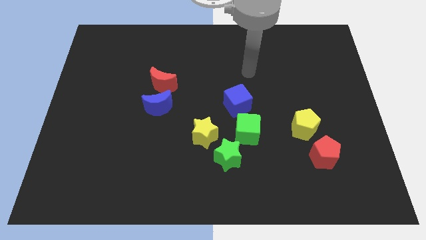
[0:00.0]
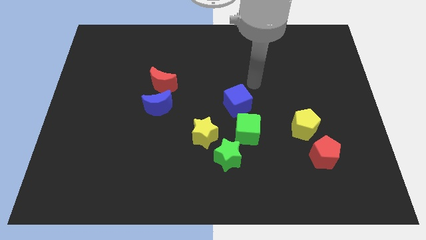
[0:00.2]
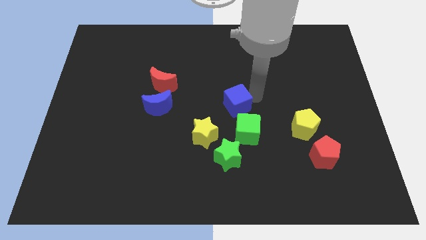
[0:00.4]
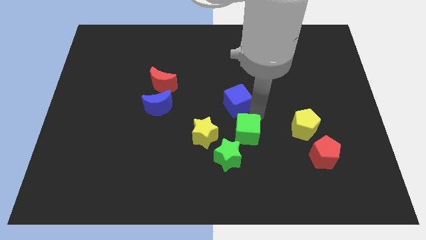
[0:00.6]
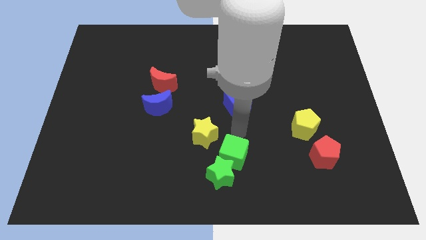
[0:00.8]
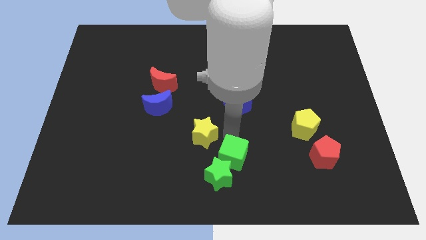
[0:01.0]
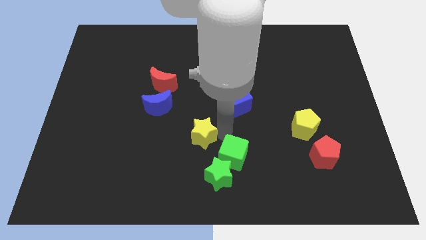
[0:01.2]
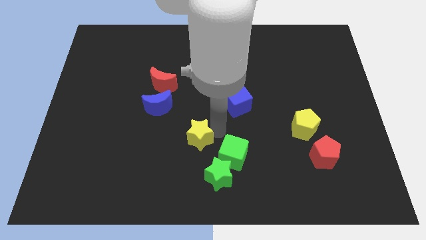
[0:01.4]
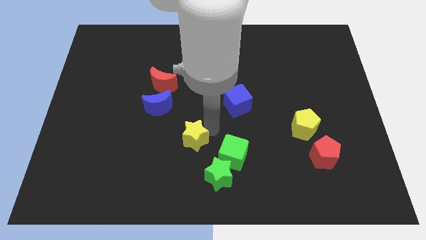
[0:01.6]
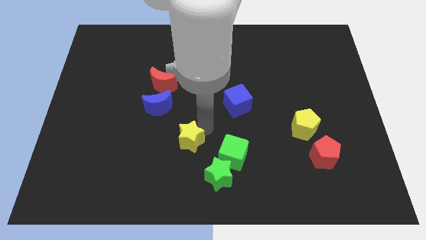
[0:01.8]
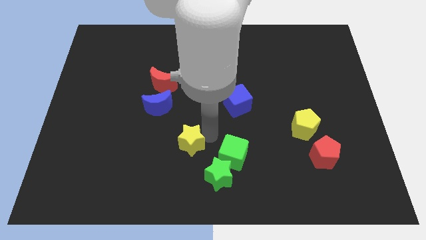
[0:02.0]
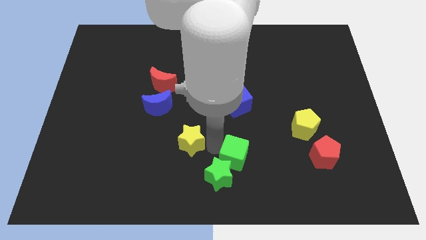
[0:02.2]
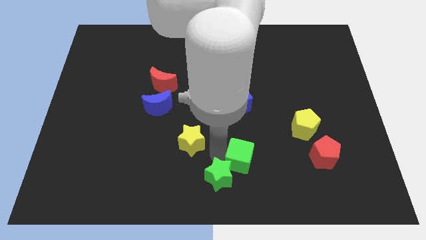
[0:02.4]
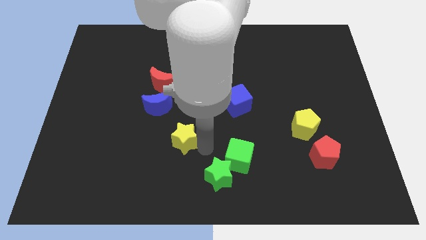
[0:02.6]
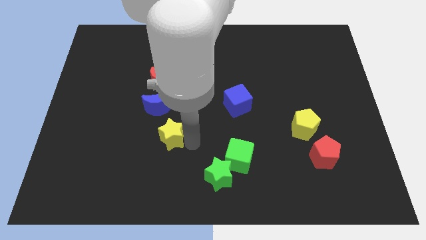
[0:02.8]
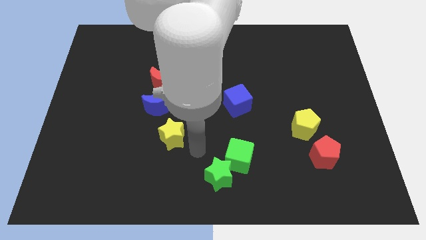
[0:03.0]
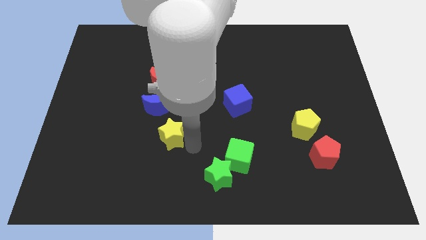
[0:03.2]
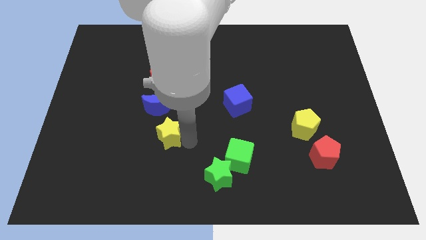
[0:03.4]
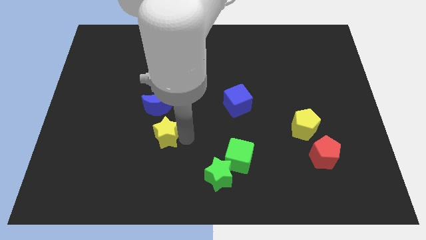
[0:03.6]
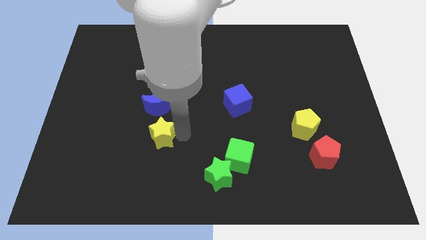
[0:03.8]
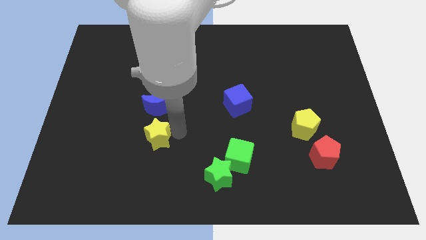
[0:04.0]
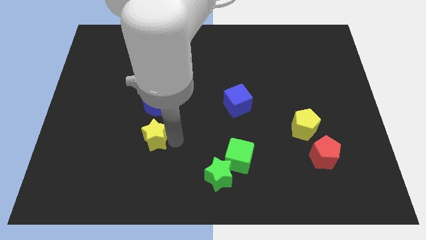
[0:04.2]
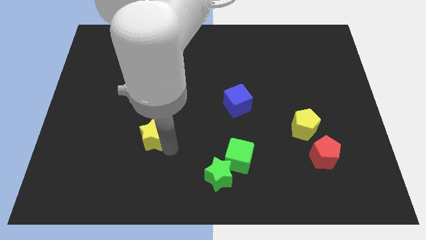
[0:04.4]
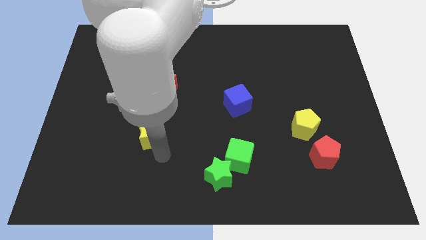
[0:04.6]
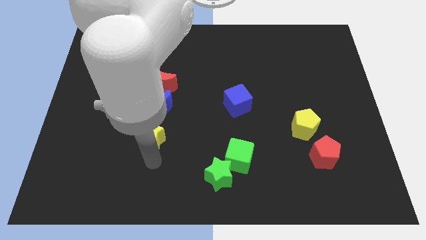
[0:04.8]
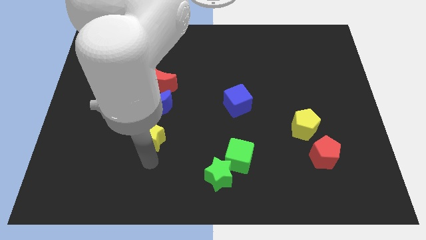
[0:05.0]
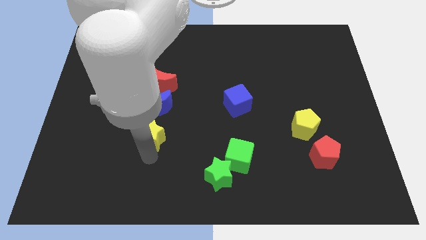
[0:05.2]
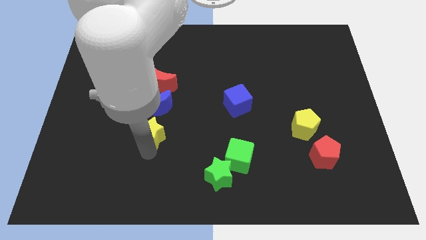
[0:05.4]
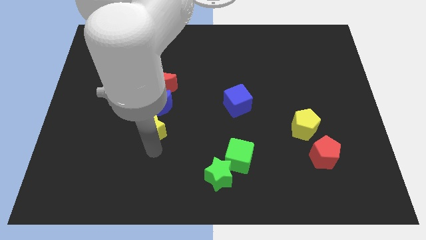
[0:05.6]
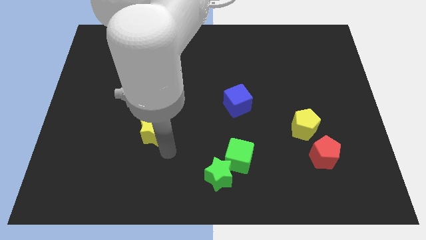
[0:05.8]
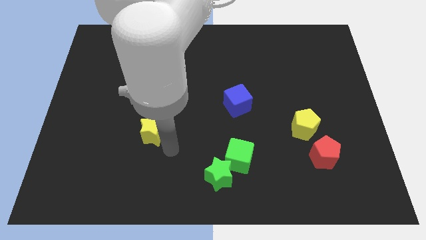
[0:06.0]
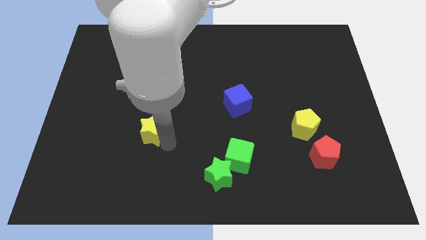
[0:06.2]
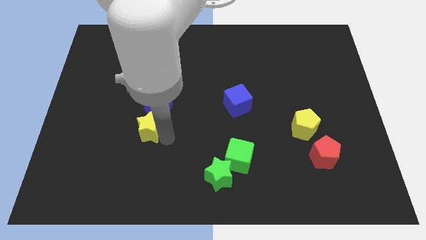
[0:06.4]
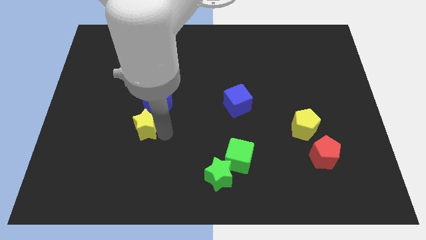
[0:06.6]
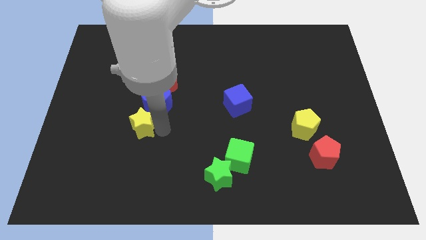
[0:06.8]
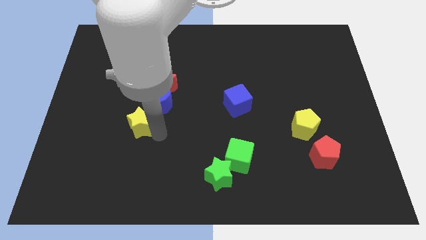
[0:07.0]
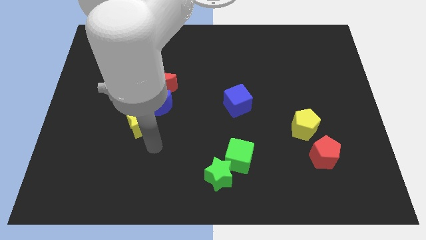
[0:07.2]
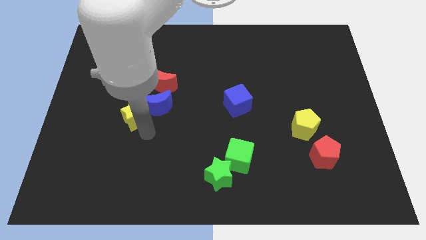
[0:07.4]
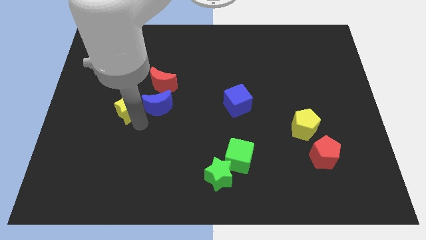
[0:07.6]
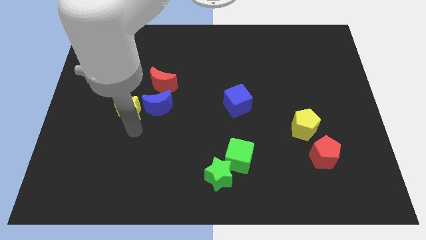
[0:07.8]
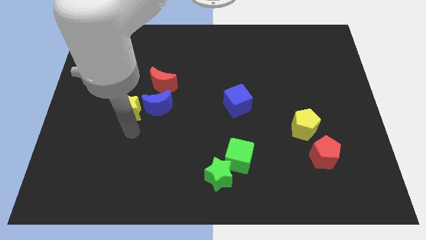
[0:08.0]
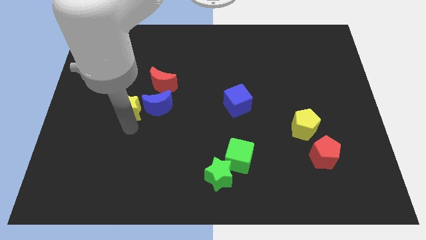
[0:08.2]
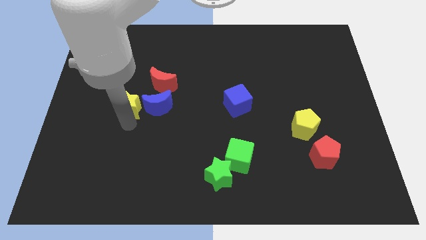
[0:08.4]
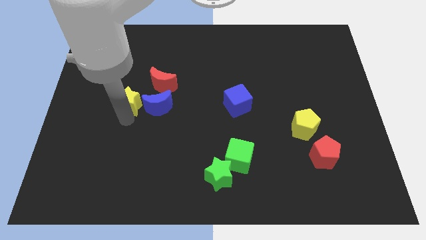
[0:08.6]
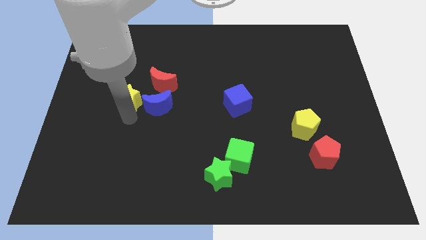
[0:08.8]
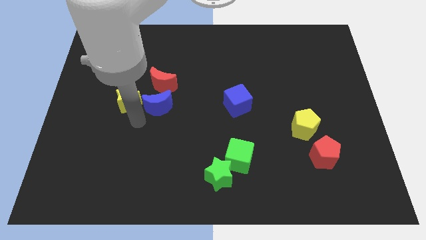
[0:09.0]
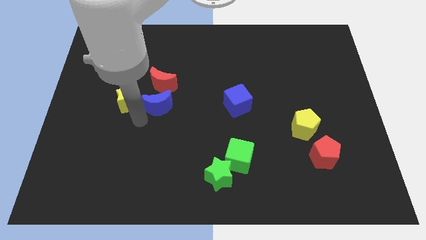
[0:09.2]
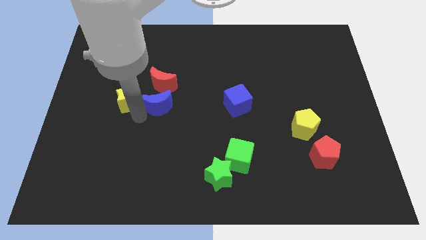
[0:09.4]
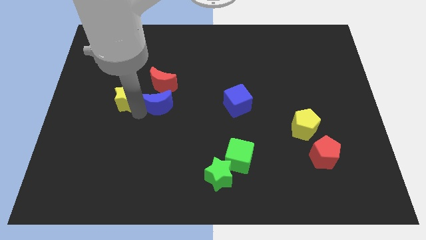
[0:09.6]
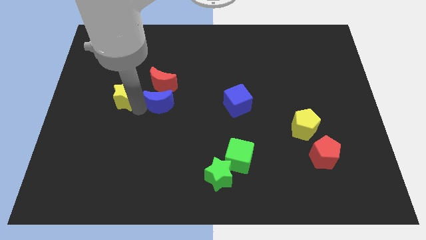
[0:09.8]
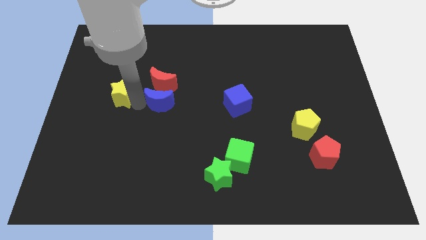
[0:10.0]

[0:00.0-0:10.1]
slide the yellow star upwards and left

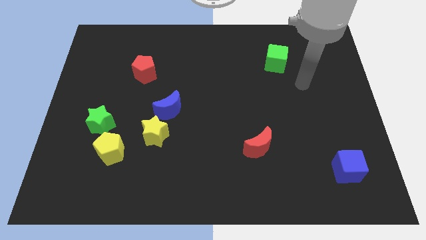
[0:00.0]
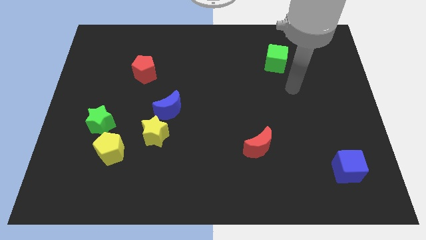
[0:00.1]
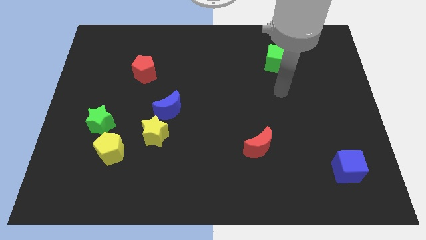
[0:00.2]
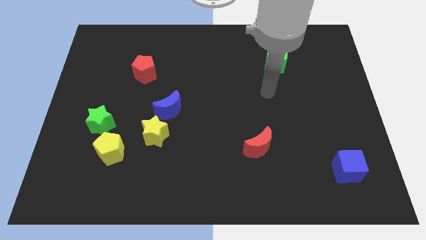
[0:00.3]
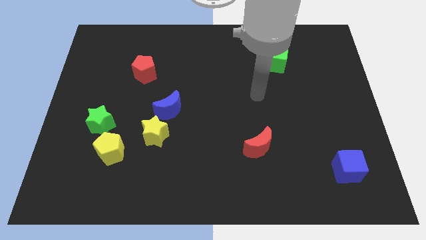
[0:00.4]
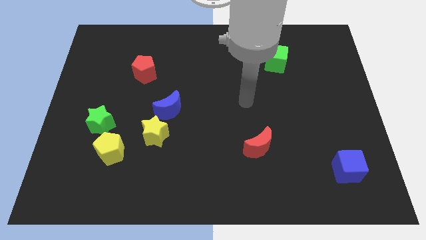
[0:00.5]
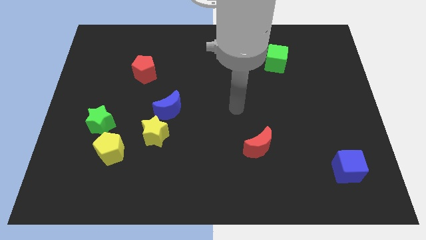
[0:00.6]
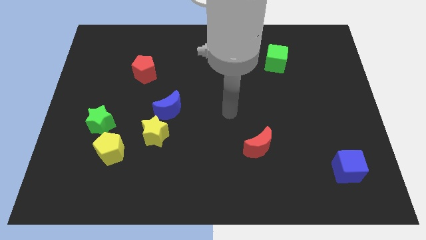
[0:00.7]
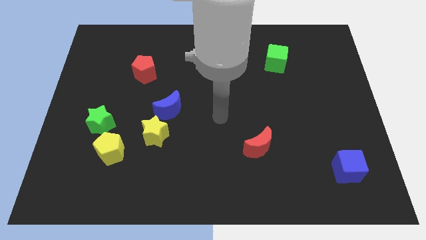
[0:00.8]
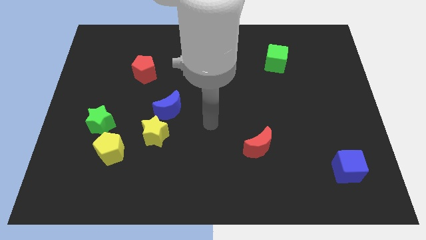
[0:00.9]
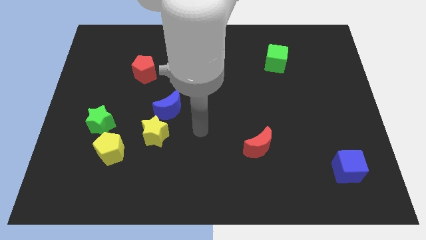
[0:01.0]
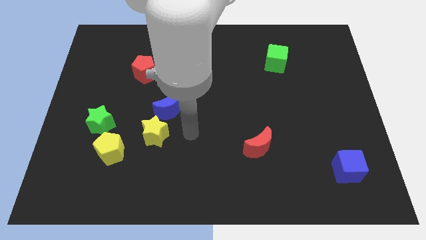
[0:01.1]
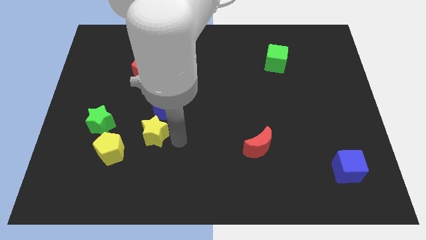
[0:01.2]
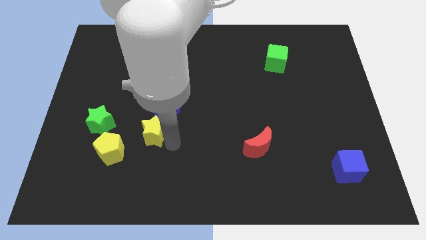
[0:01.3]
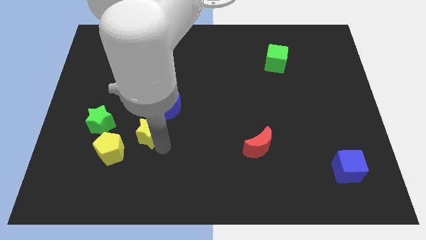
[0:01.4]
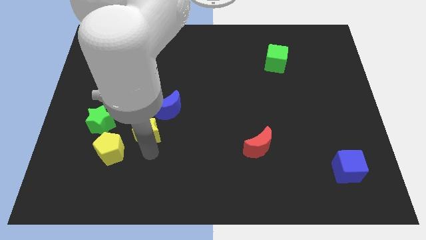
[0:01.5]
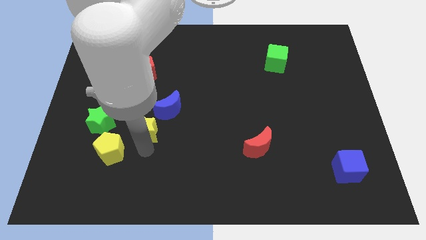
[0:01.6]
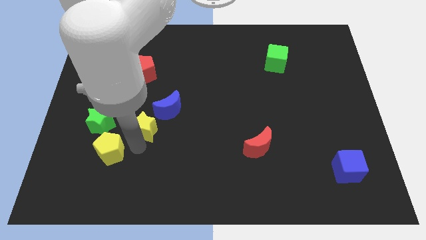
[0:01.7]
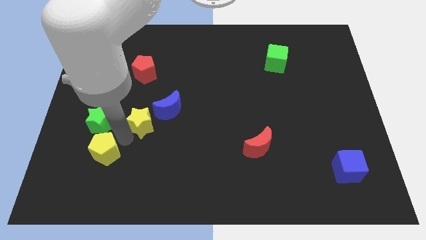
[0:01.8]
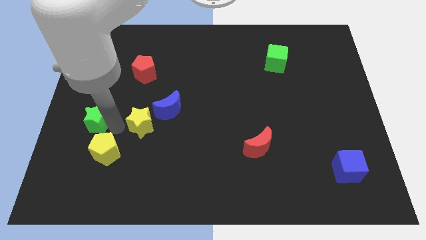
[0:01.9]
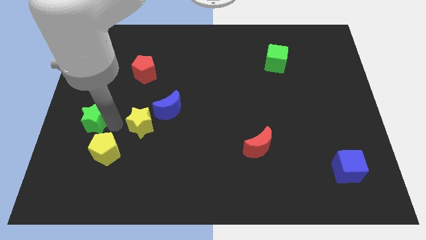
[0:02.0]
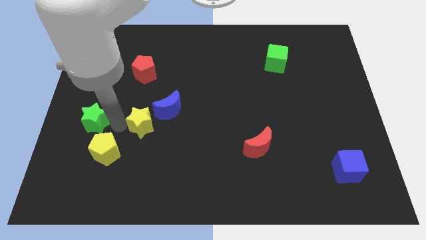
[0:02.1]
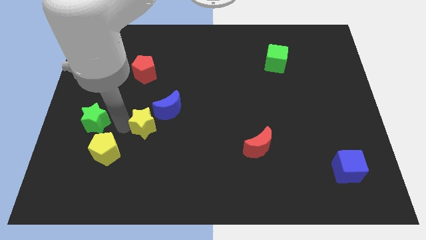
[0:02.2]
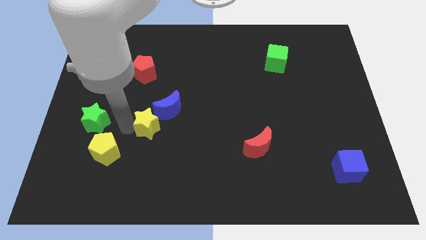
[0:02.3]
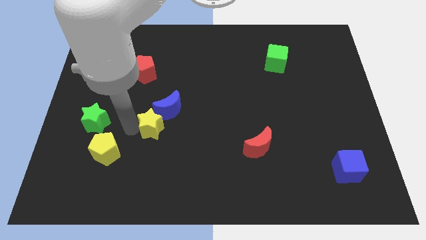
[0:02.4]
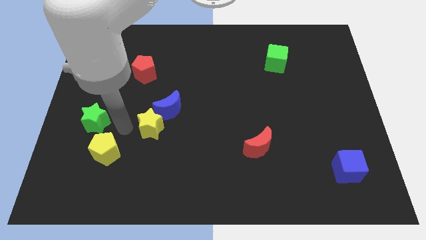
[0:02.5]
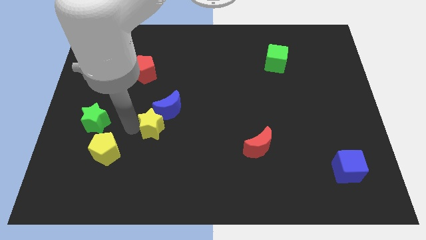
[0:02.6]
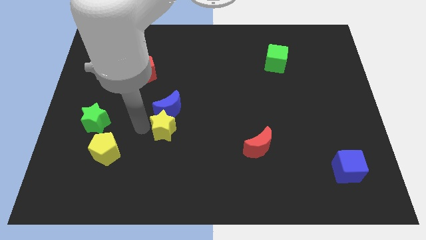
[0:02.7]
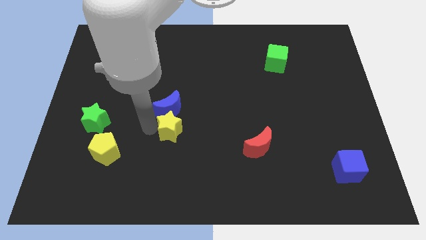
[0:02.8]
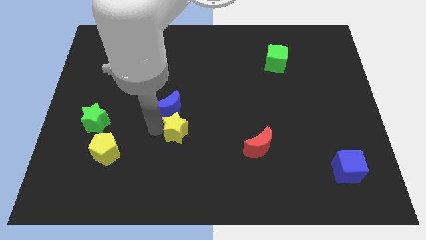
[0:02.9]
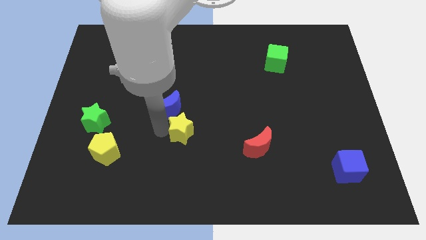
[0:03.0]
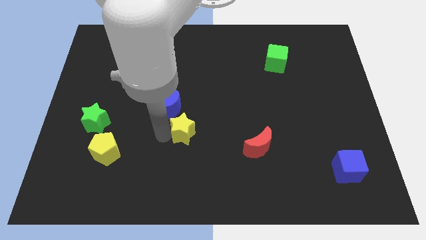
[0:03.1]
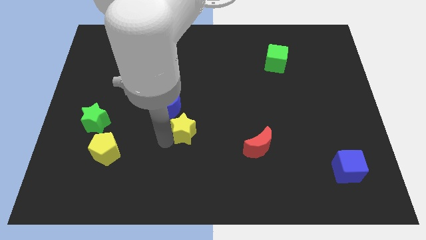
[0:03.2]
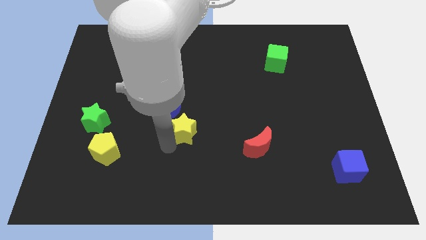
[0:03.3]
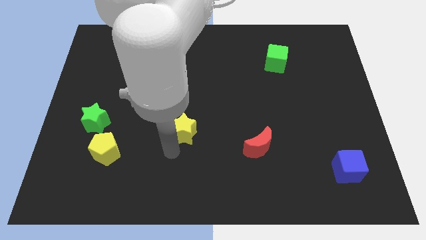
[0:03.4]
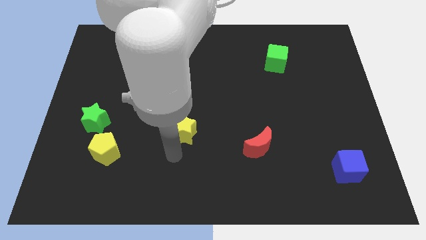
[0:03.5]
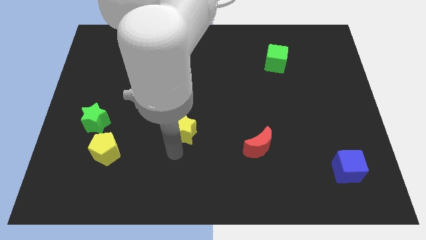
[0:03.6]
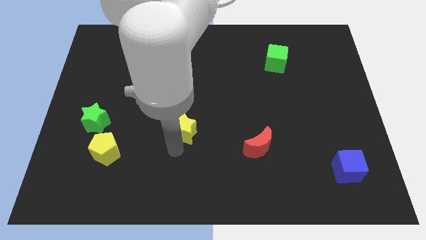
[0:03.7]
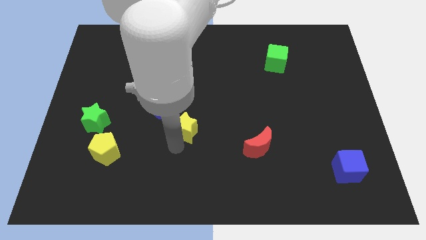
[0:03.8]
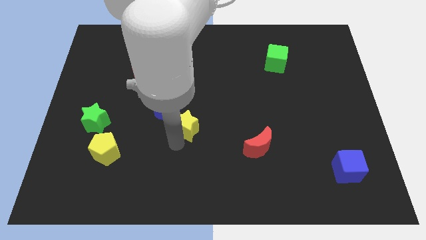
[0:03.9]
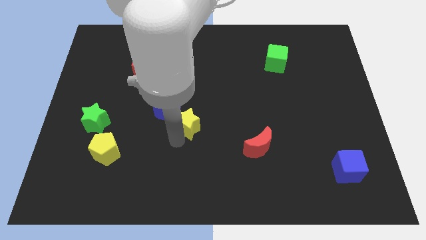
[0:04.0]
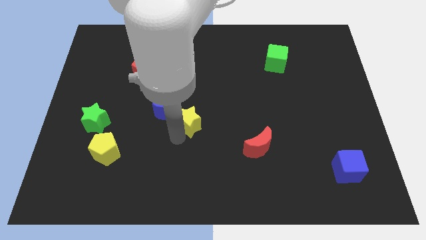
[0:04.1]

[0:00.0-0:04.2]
slightly slide the yellow star diagonally upwards and to the right
